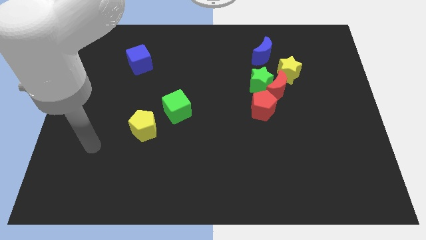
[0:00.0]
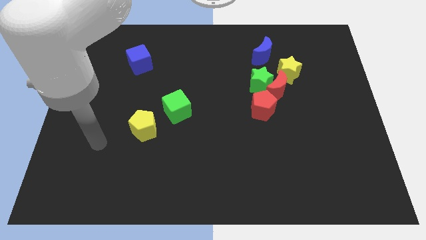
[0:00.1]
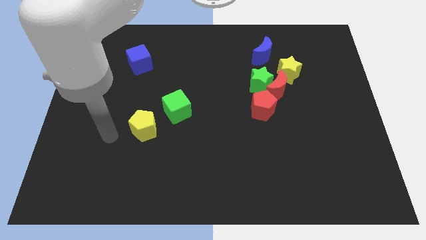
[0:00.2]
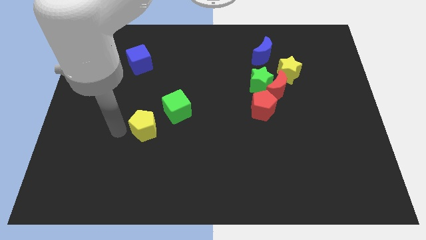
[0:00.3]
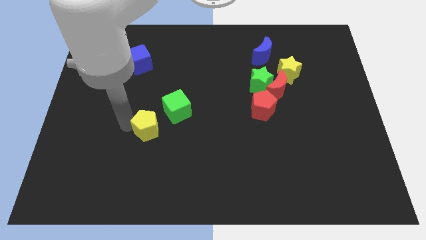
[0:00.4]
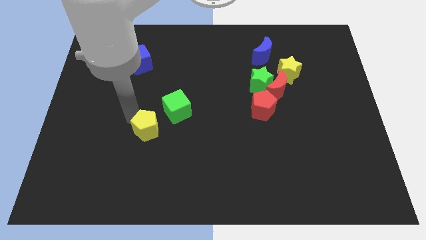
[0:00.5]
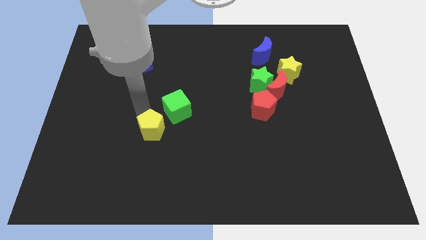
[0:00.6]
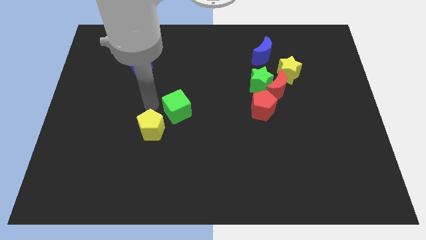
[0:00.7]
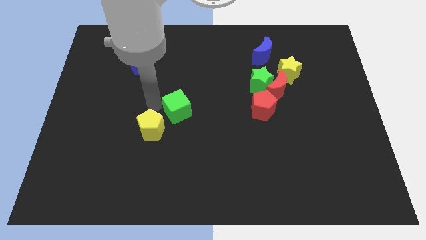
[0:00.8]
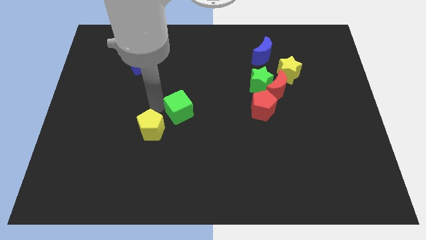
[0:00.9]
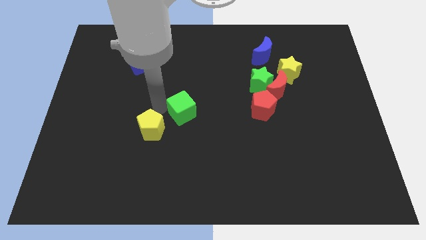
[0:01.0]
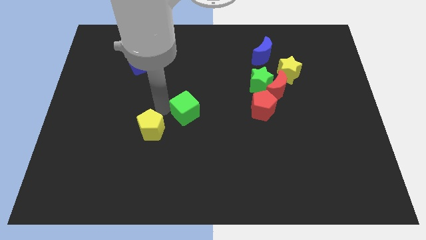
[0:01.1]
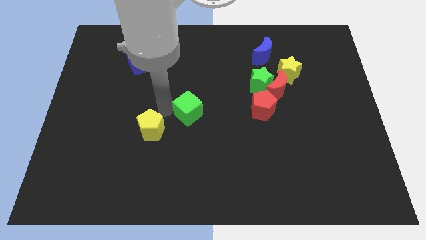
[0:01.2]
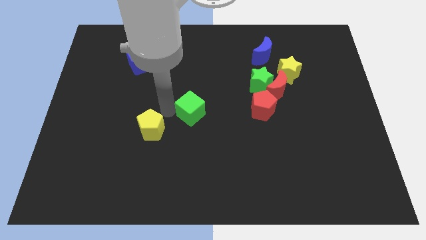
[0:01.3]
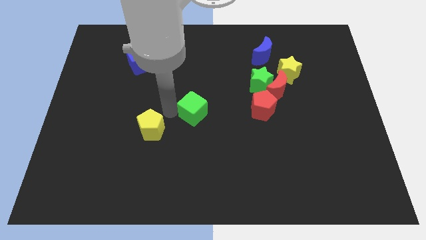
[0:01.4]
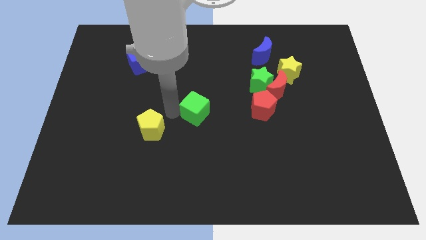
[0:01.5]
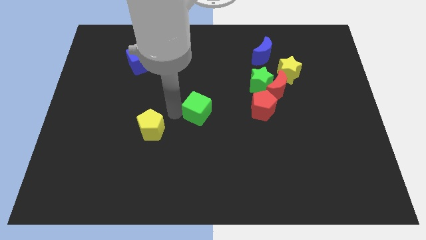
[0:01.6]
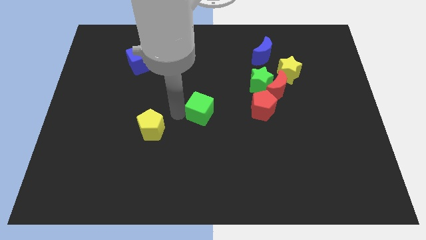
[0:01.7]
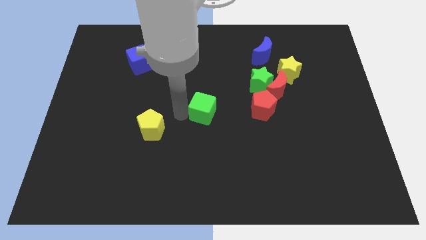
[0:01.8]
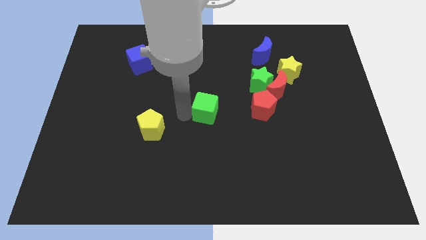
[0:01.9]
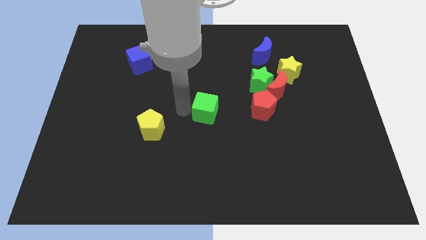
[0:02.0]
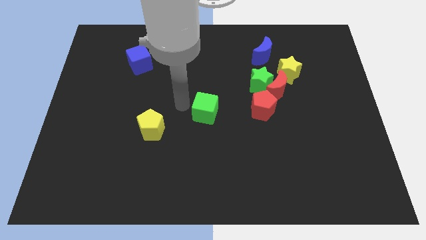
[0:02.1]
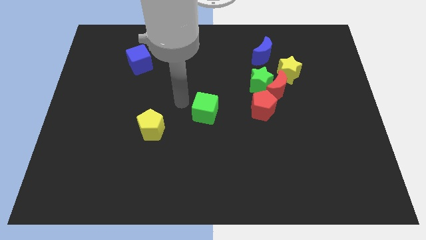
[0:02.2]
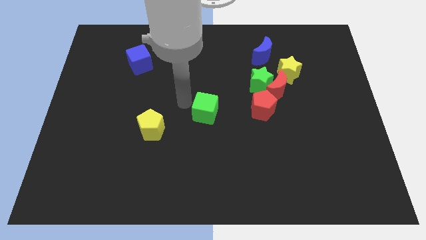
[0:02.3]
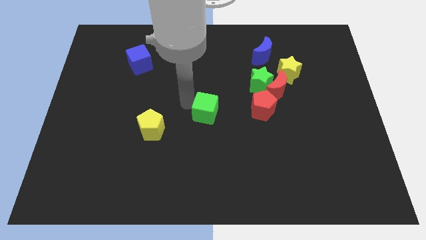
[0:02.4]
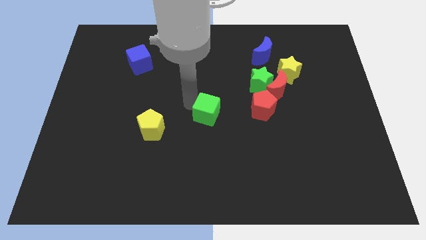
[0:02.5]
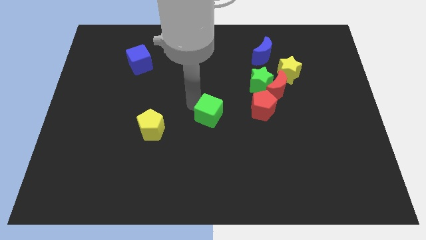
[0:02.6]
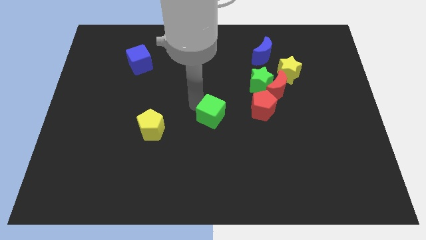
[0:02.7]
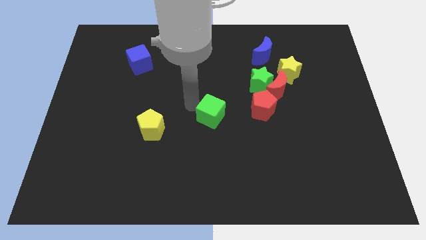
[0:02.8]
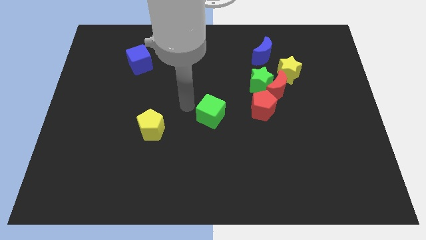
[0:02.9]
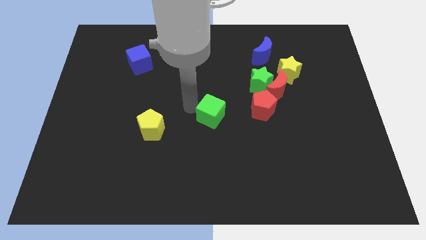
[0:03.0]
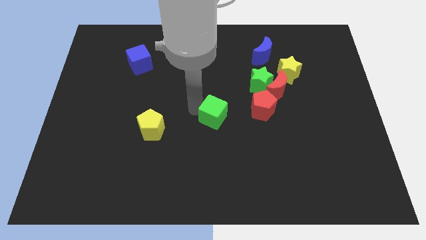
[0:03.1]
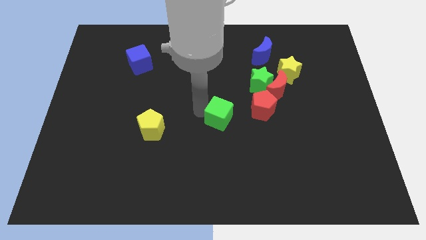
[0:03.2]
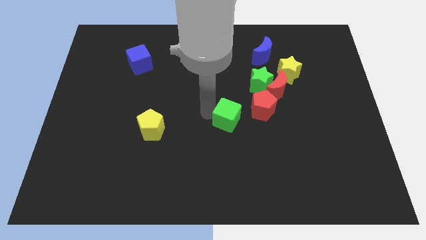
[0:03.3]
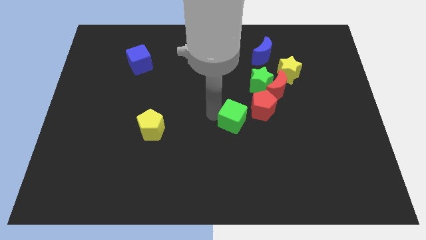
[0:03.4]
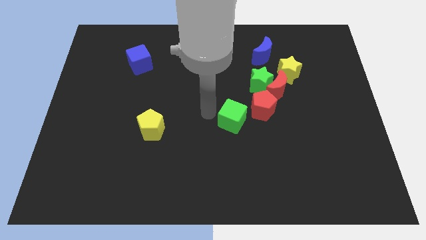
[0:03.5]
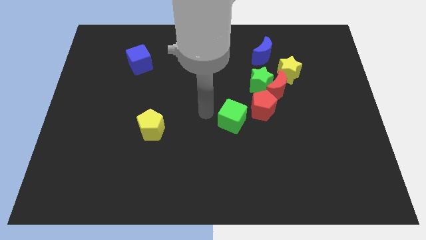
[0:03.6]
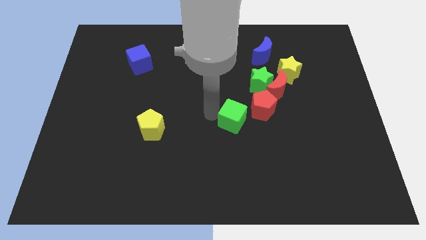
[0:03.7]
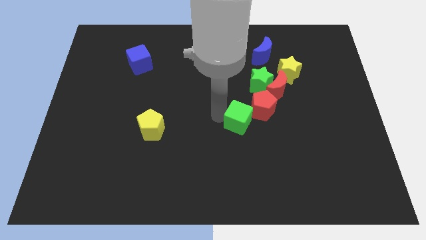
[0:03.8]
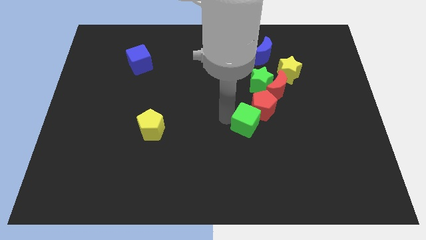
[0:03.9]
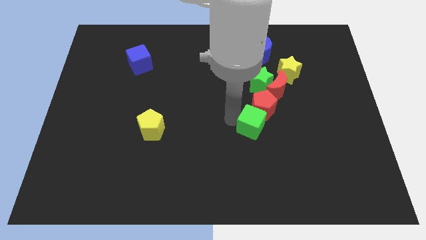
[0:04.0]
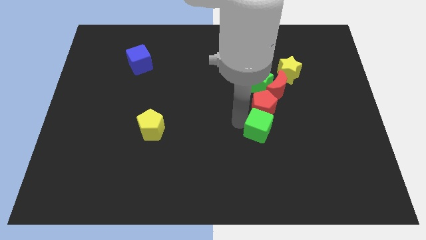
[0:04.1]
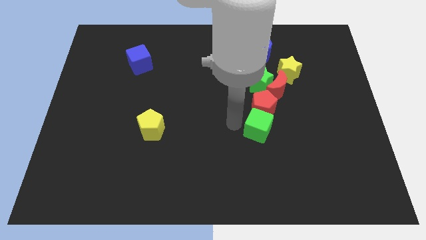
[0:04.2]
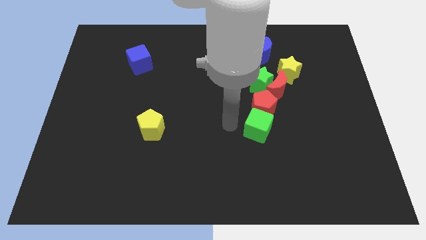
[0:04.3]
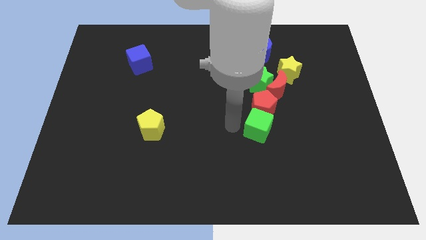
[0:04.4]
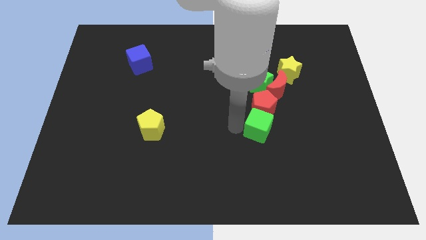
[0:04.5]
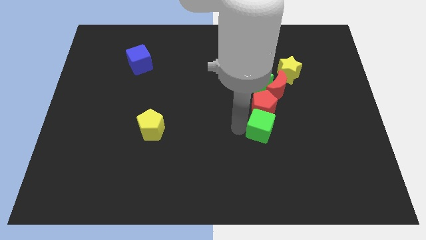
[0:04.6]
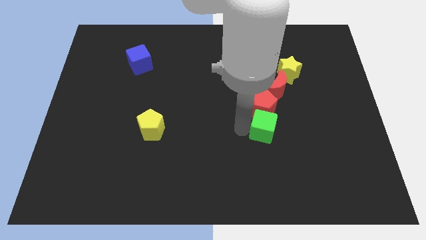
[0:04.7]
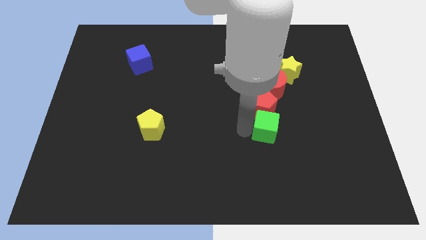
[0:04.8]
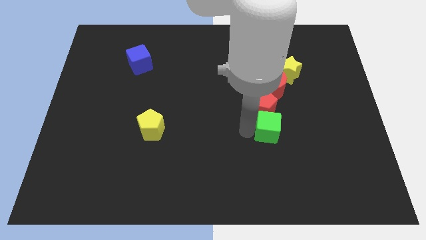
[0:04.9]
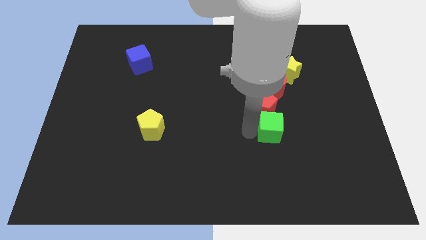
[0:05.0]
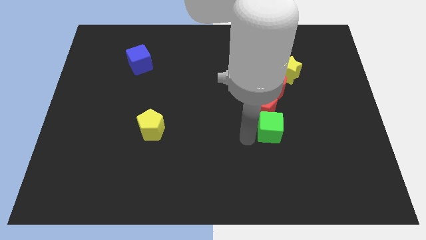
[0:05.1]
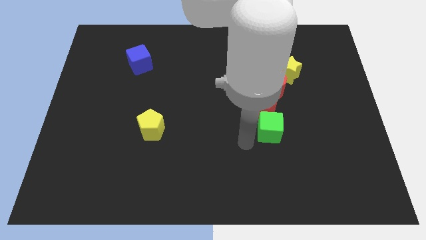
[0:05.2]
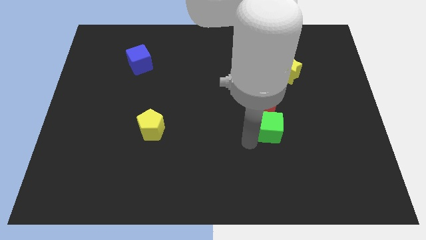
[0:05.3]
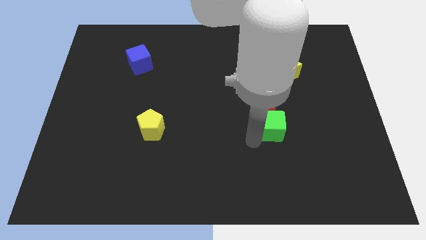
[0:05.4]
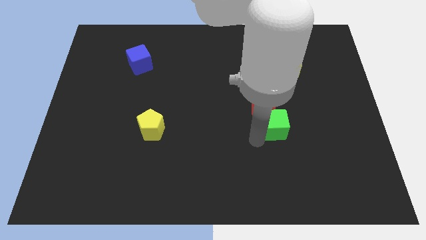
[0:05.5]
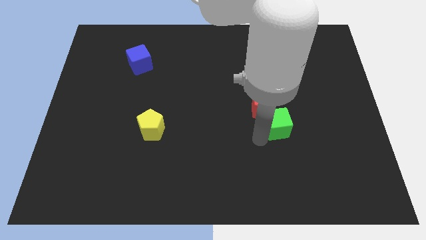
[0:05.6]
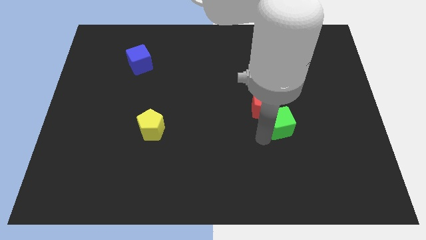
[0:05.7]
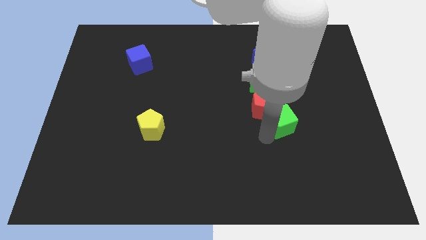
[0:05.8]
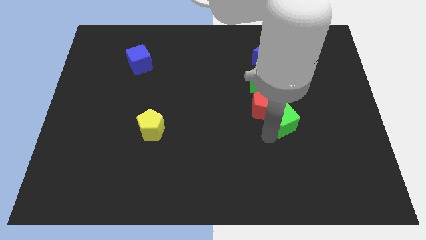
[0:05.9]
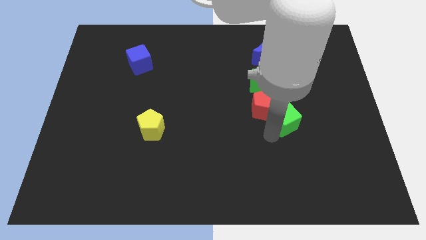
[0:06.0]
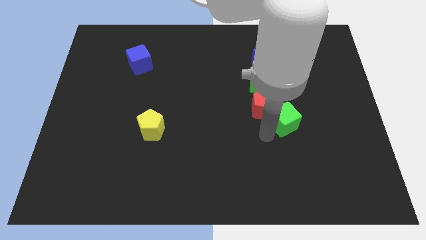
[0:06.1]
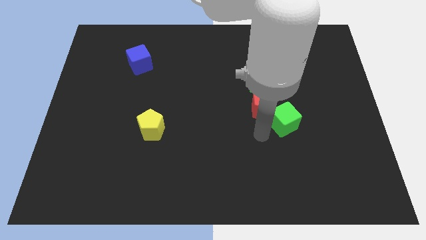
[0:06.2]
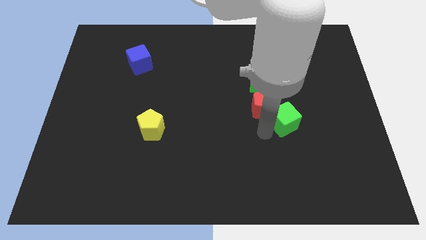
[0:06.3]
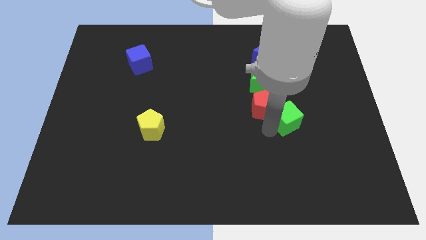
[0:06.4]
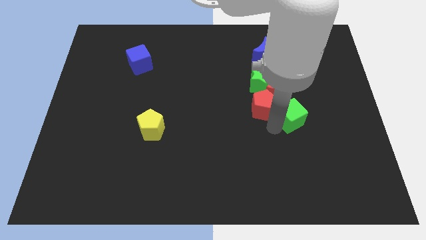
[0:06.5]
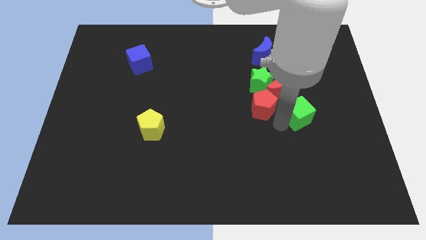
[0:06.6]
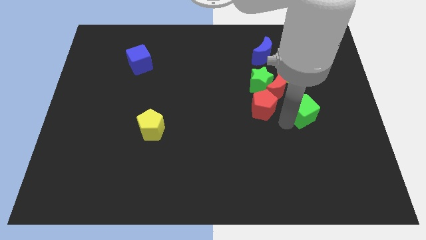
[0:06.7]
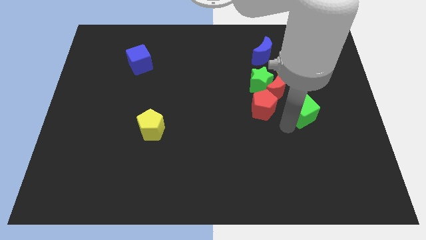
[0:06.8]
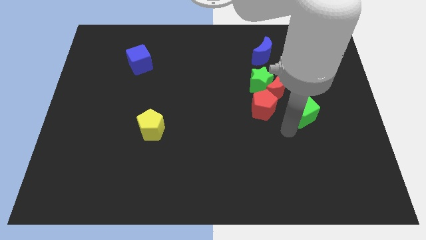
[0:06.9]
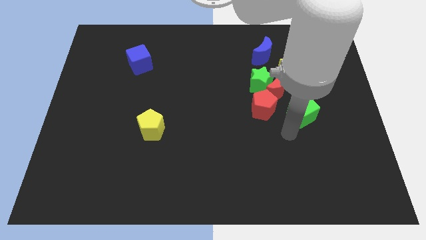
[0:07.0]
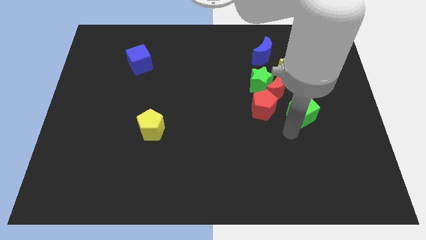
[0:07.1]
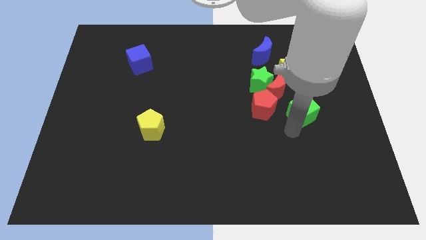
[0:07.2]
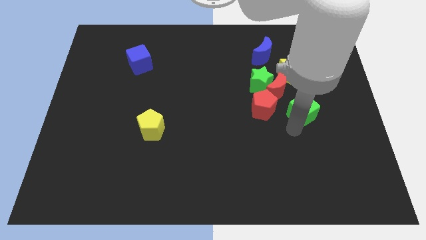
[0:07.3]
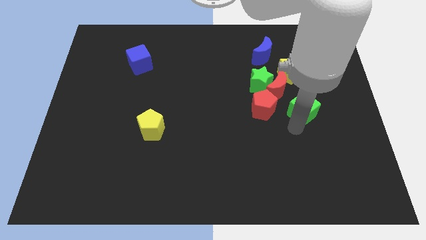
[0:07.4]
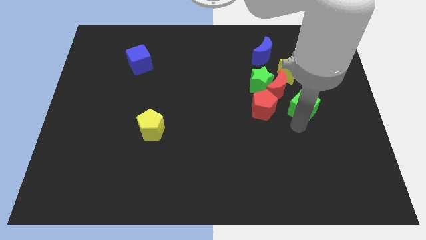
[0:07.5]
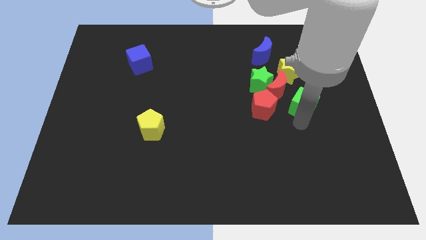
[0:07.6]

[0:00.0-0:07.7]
push the green cube right of the red moon
